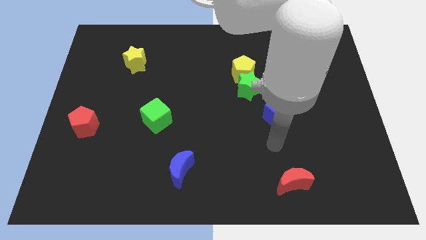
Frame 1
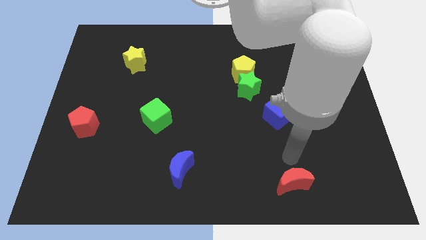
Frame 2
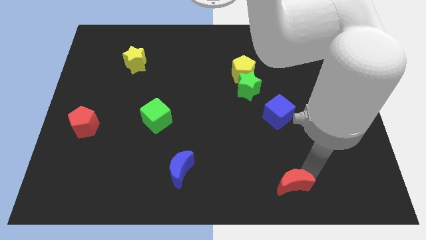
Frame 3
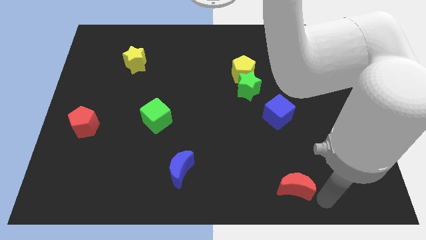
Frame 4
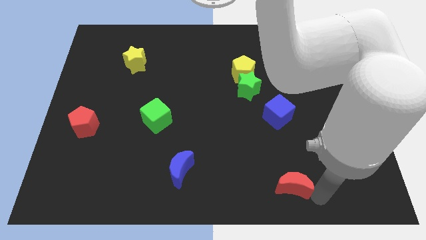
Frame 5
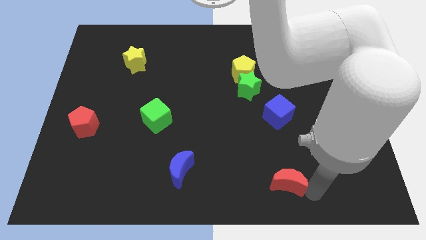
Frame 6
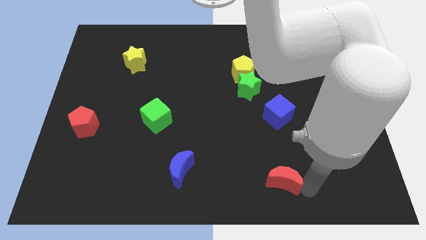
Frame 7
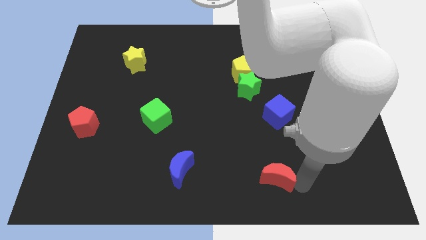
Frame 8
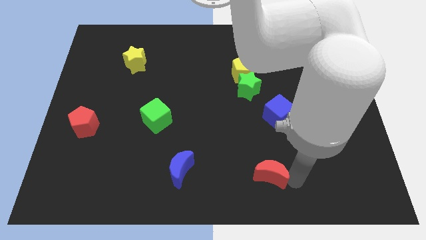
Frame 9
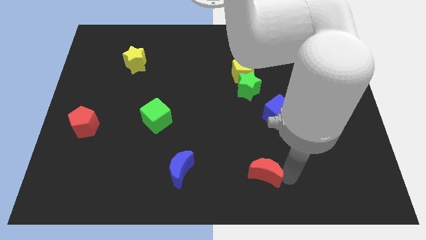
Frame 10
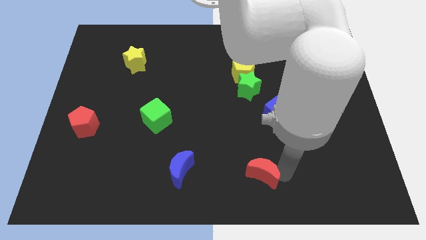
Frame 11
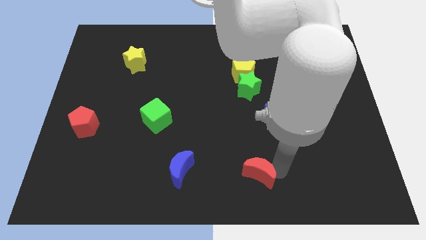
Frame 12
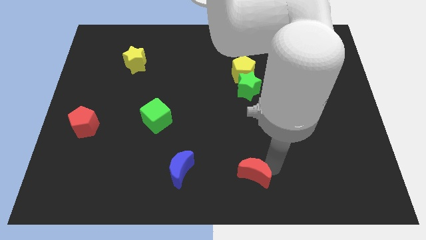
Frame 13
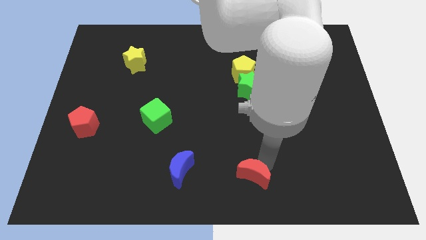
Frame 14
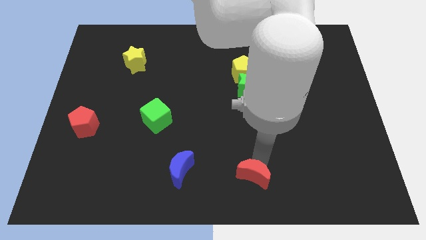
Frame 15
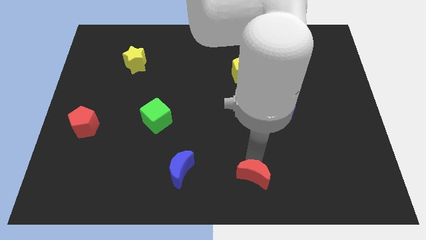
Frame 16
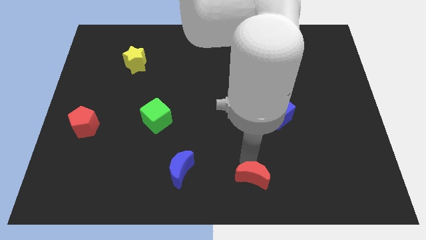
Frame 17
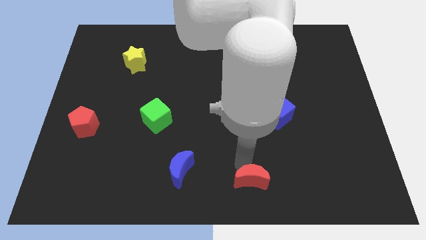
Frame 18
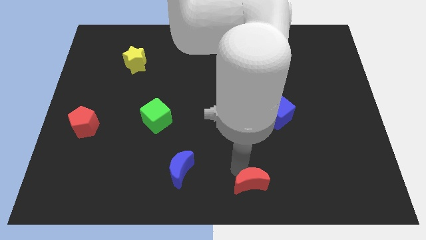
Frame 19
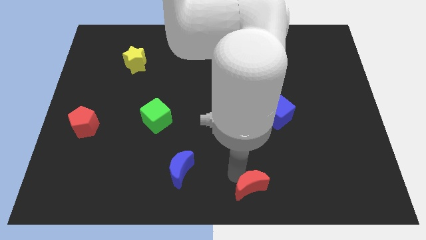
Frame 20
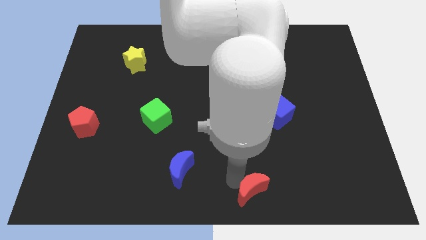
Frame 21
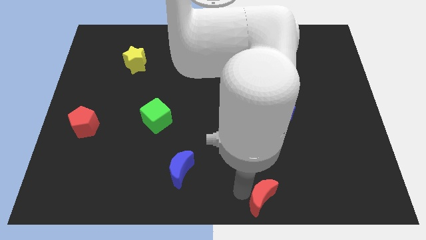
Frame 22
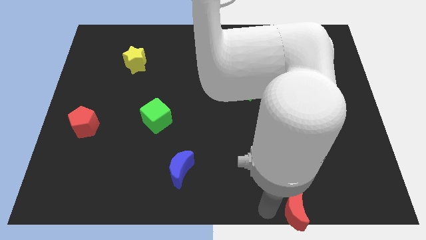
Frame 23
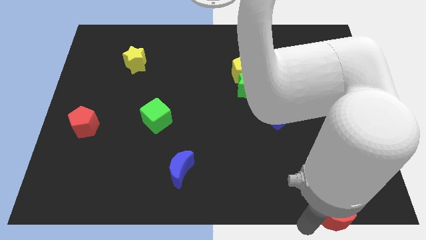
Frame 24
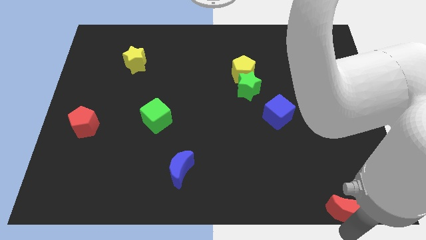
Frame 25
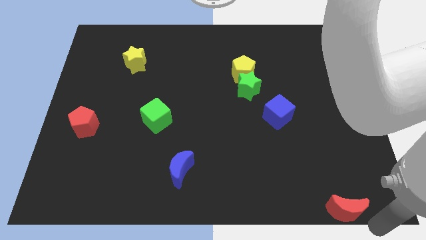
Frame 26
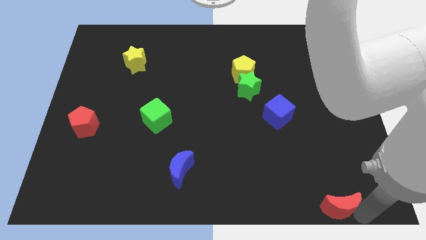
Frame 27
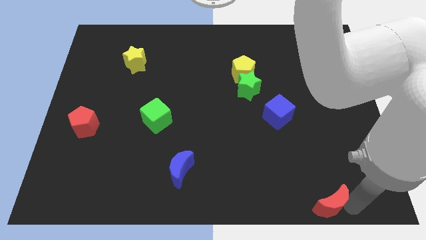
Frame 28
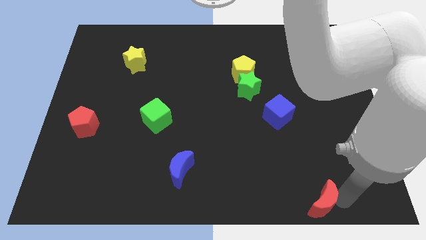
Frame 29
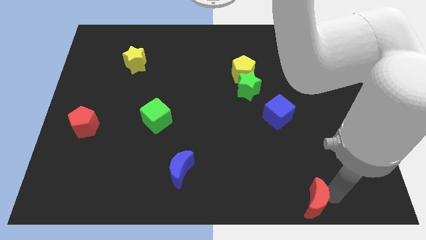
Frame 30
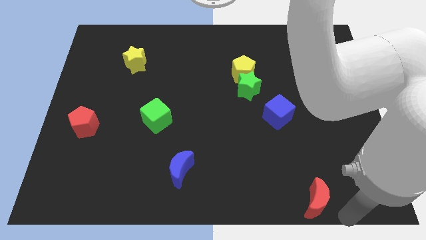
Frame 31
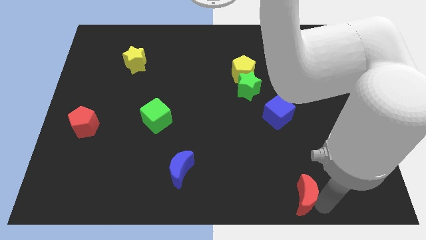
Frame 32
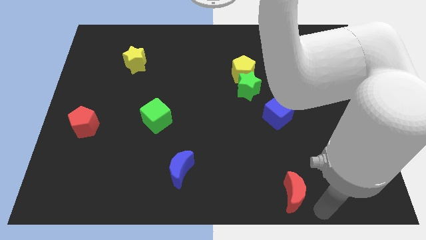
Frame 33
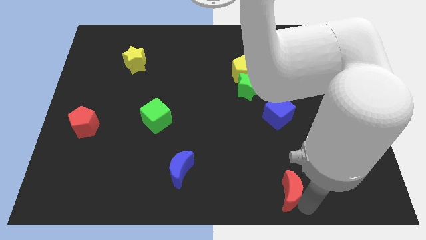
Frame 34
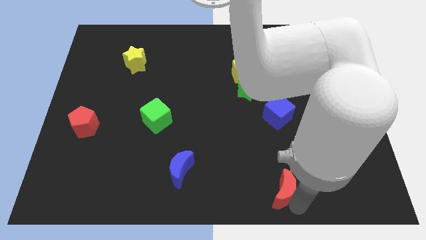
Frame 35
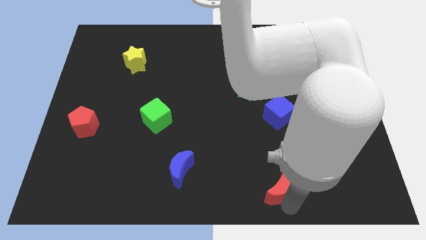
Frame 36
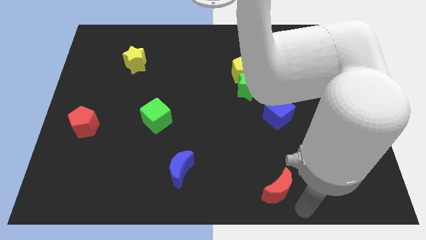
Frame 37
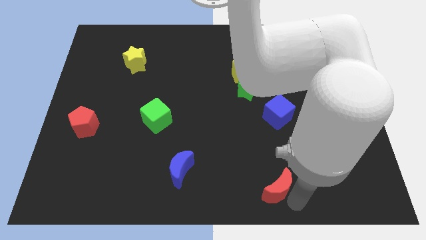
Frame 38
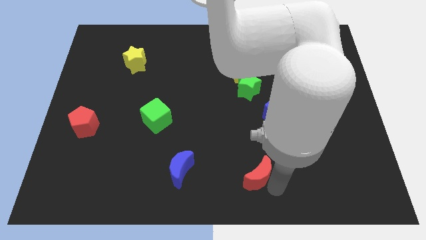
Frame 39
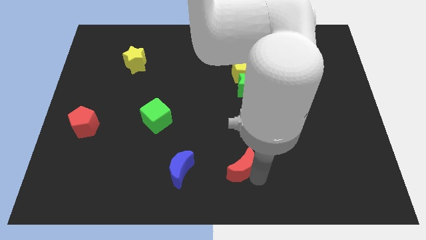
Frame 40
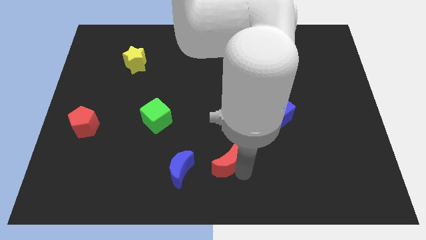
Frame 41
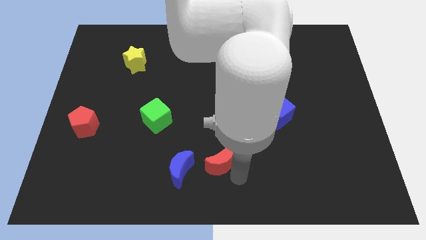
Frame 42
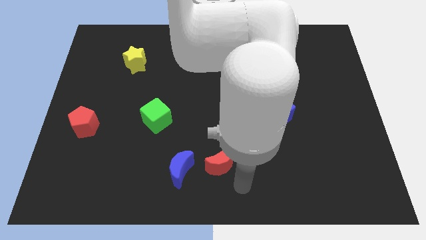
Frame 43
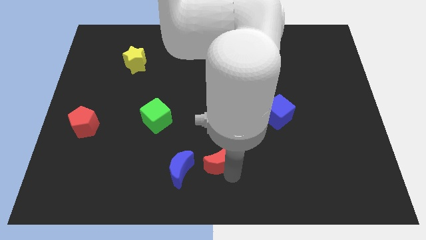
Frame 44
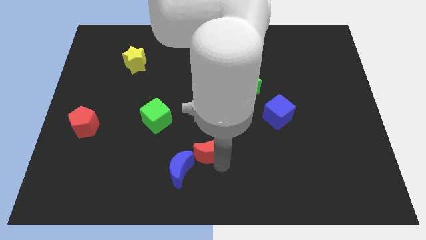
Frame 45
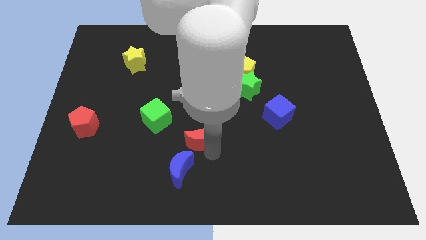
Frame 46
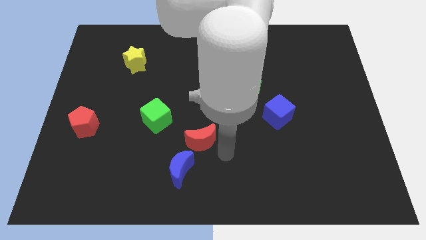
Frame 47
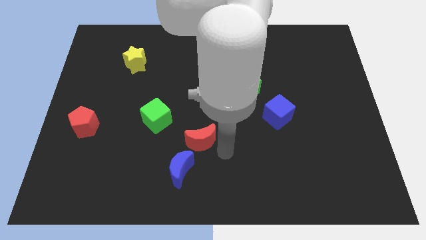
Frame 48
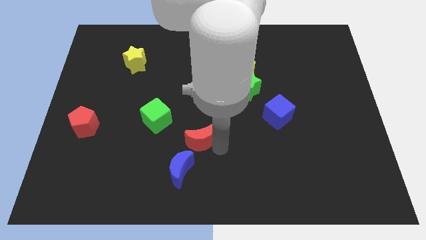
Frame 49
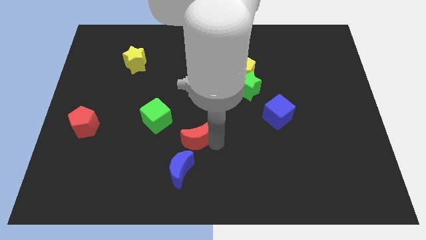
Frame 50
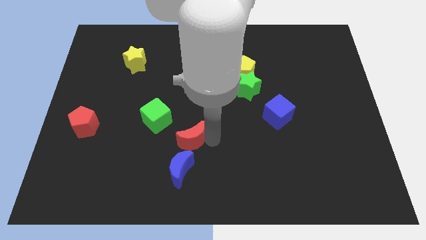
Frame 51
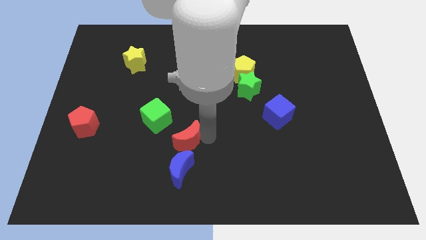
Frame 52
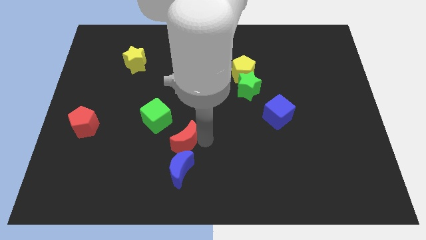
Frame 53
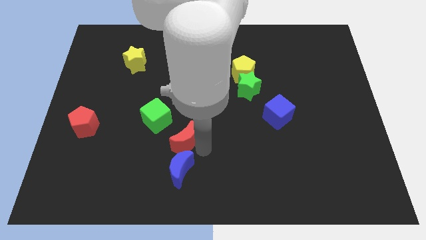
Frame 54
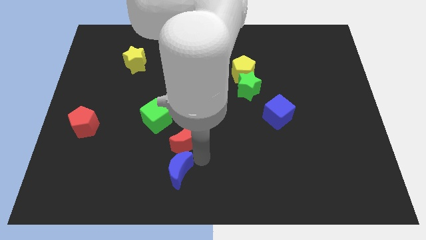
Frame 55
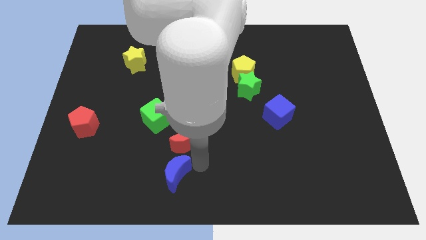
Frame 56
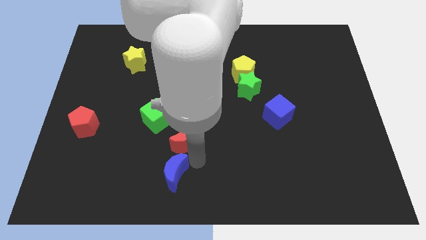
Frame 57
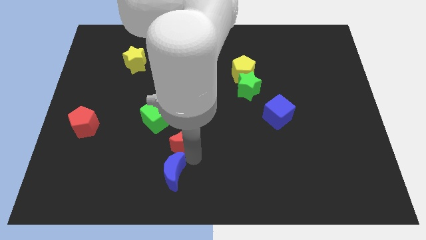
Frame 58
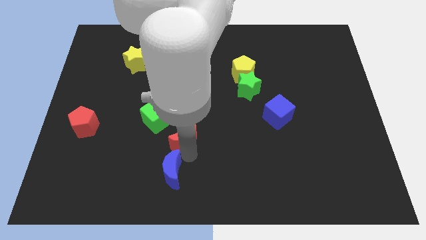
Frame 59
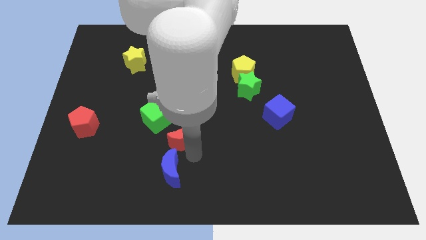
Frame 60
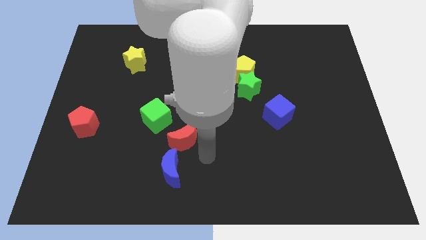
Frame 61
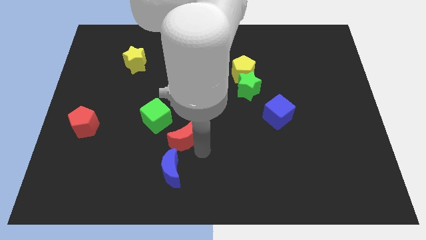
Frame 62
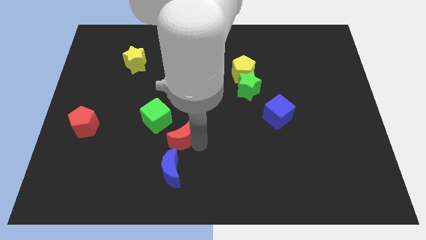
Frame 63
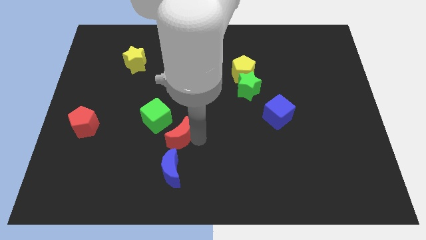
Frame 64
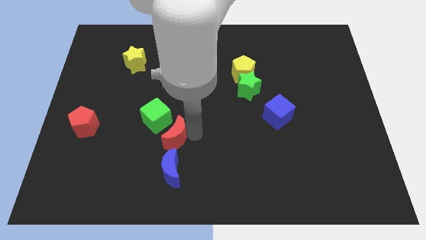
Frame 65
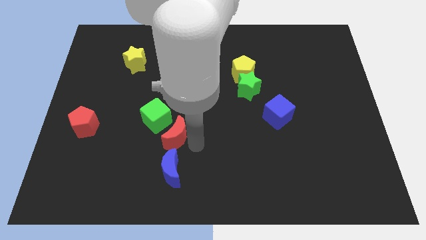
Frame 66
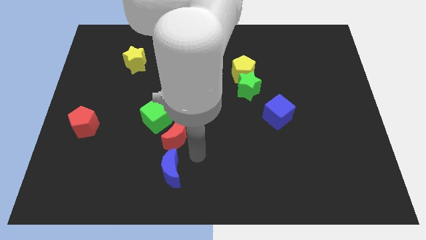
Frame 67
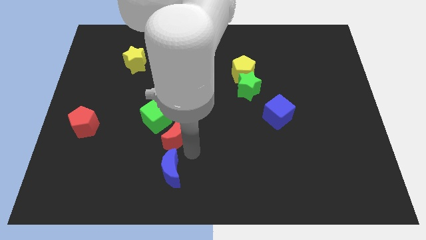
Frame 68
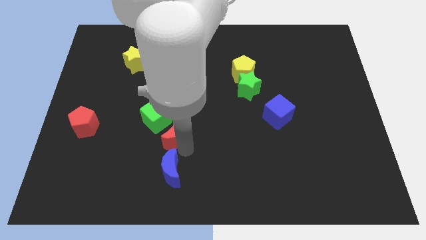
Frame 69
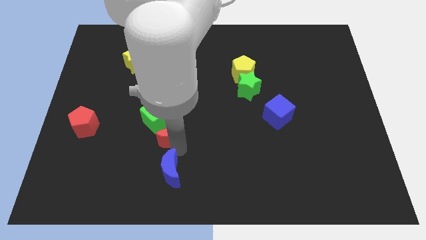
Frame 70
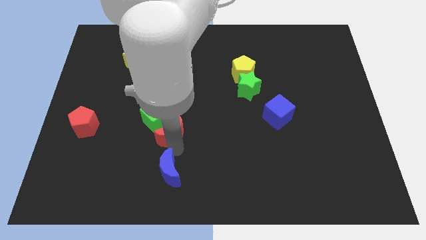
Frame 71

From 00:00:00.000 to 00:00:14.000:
push the red moon next to the green cube
